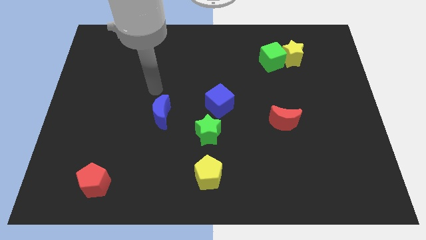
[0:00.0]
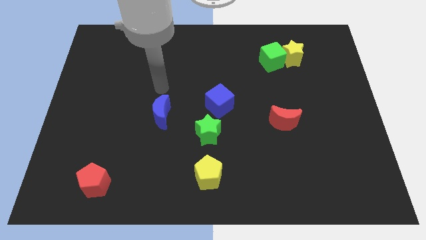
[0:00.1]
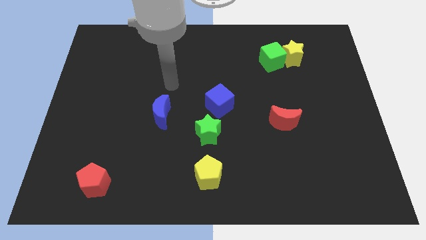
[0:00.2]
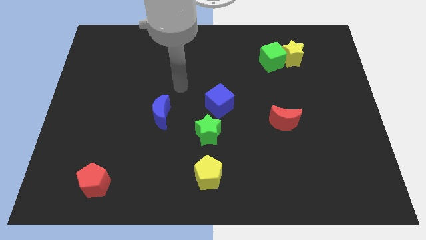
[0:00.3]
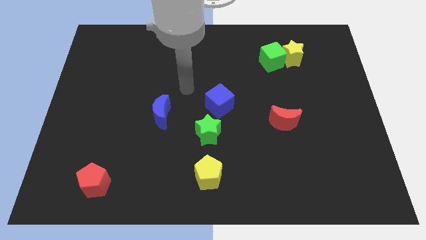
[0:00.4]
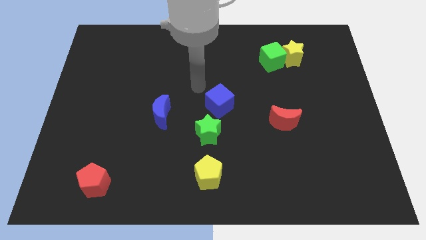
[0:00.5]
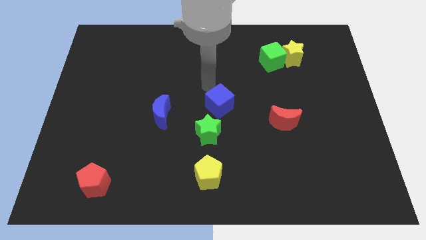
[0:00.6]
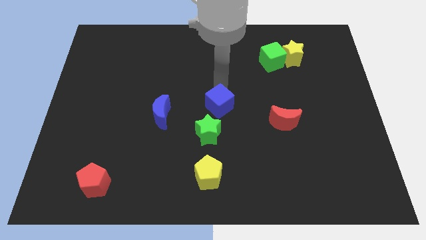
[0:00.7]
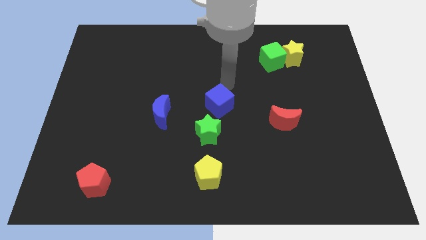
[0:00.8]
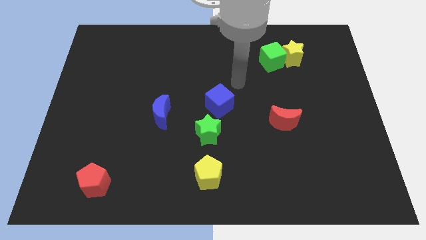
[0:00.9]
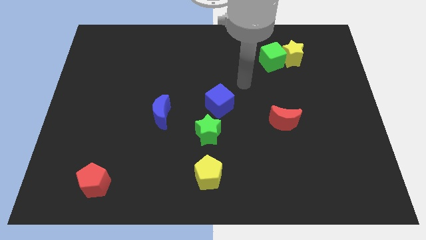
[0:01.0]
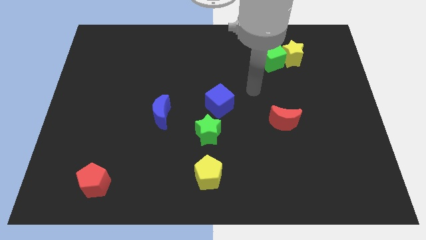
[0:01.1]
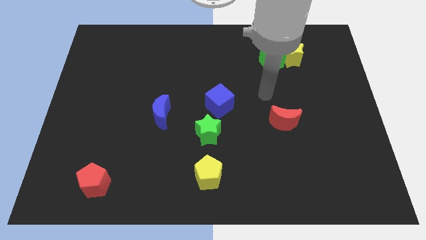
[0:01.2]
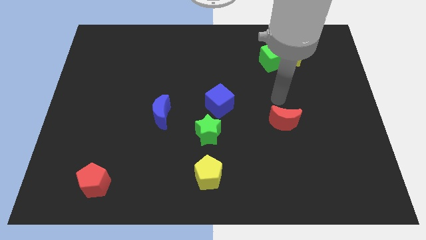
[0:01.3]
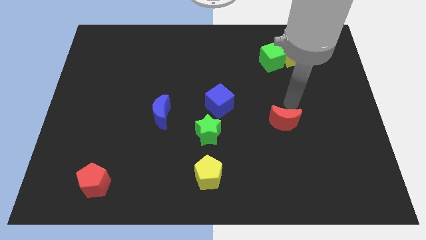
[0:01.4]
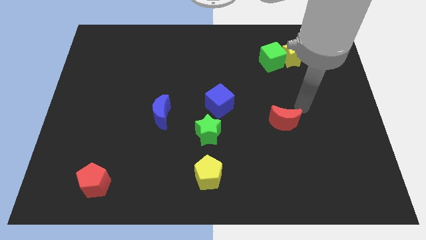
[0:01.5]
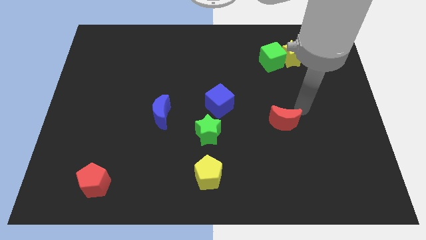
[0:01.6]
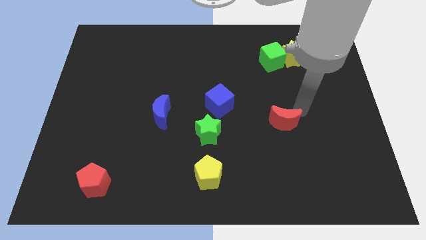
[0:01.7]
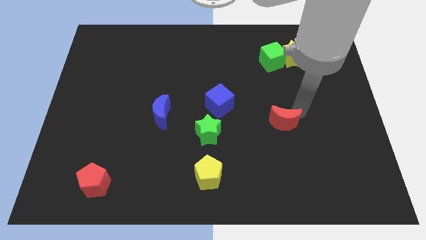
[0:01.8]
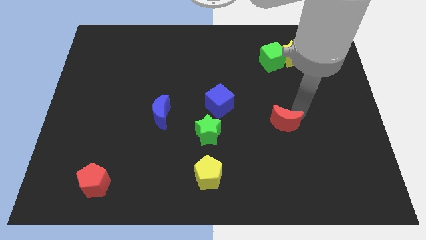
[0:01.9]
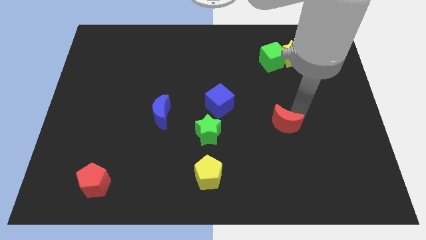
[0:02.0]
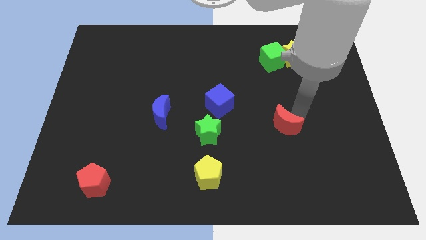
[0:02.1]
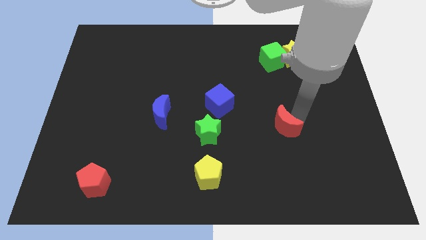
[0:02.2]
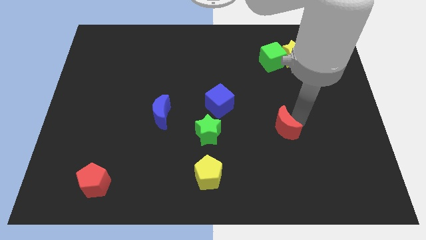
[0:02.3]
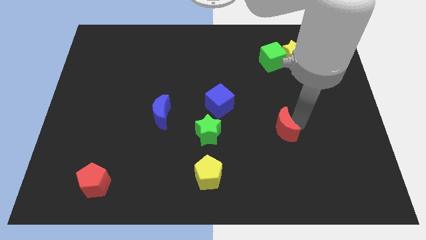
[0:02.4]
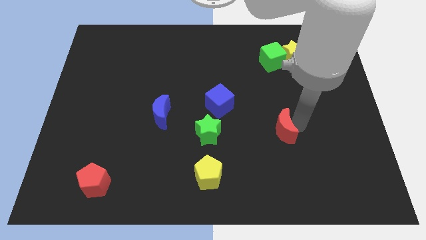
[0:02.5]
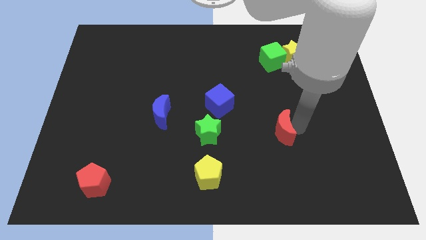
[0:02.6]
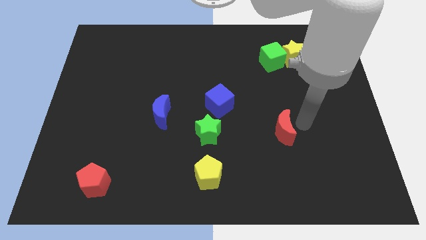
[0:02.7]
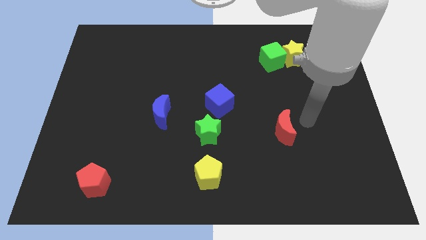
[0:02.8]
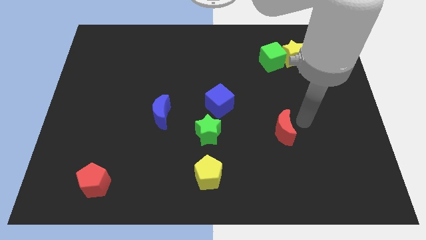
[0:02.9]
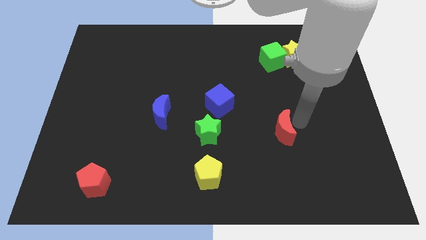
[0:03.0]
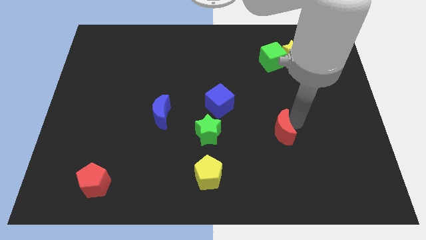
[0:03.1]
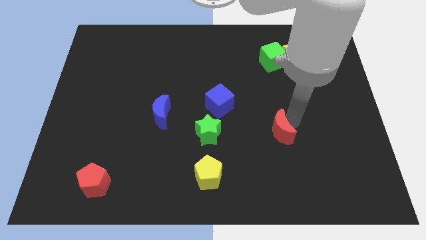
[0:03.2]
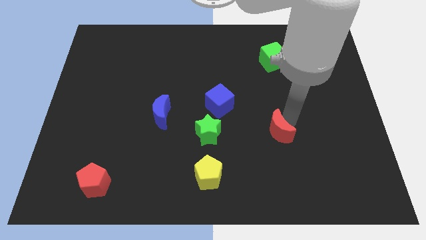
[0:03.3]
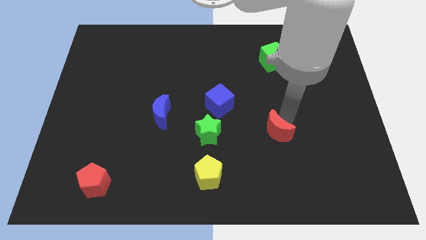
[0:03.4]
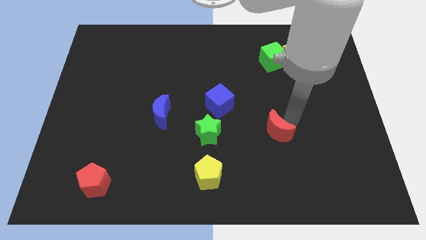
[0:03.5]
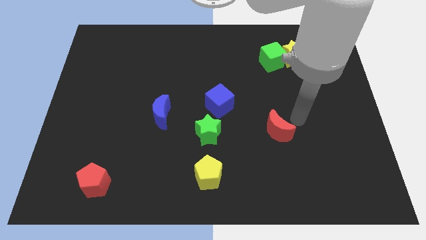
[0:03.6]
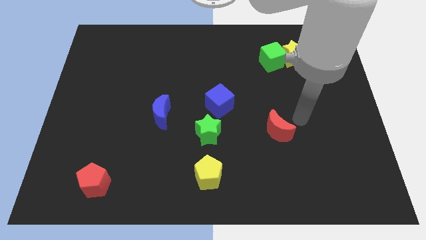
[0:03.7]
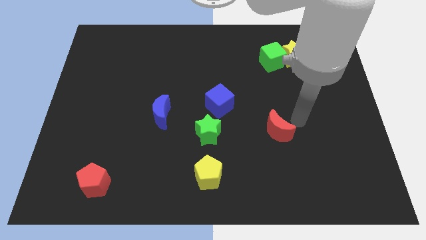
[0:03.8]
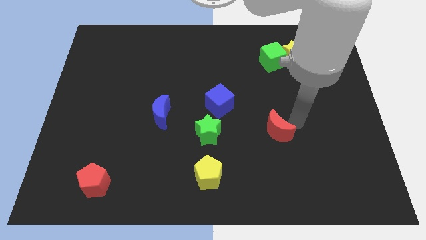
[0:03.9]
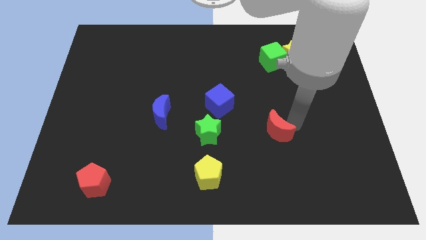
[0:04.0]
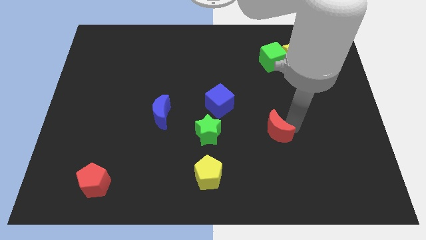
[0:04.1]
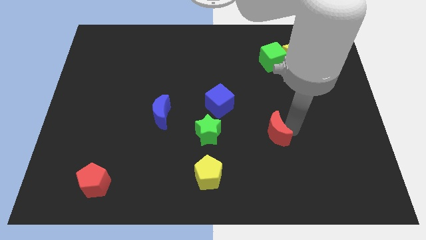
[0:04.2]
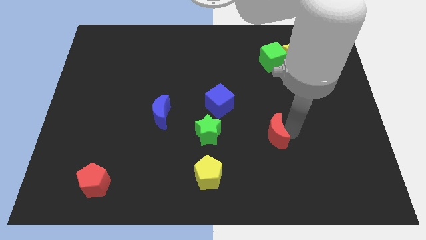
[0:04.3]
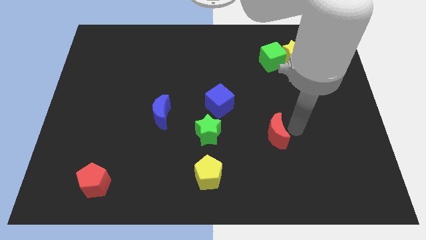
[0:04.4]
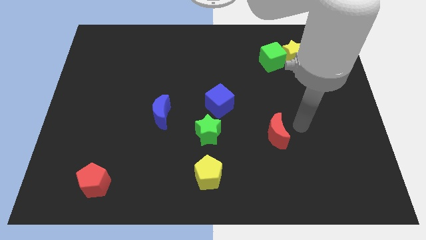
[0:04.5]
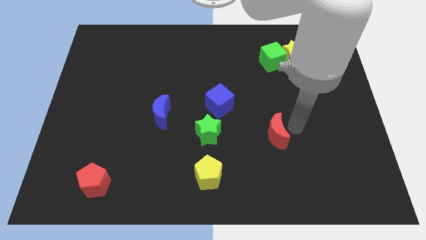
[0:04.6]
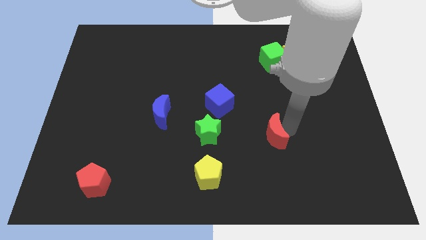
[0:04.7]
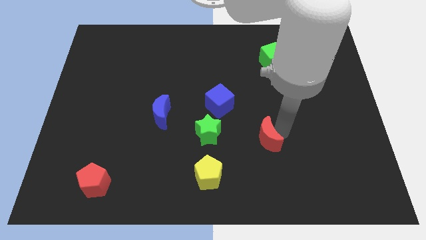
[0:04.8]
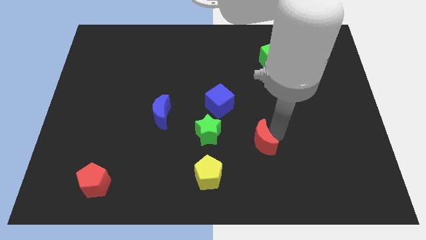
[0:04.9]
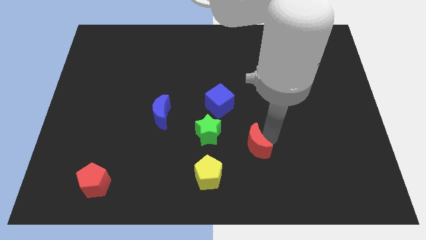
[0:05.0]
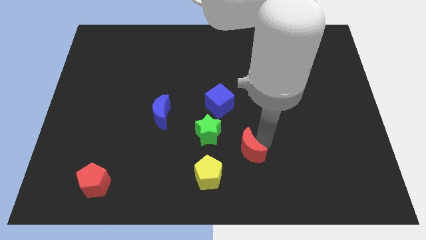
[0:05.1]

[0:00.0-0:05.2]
put the red moon to the bottom right side of the green star

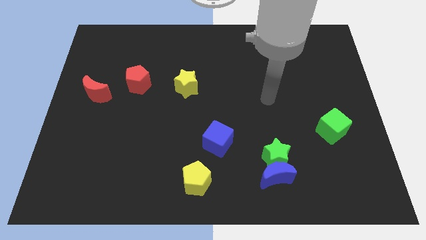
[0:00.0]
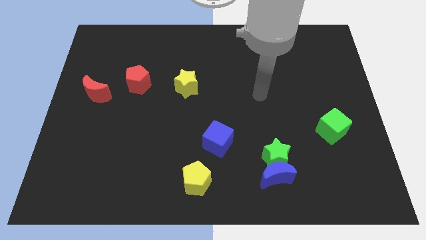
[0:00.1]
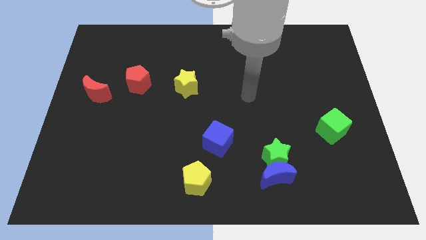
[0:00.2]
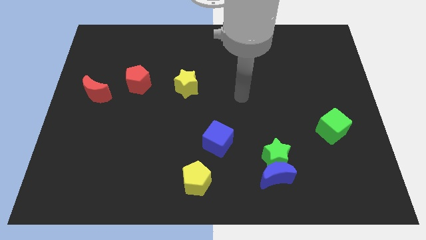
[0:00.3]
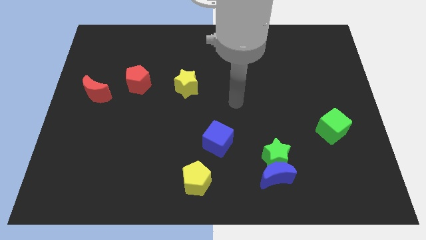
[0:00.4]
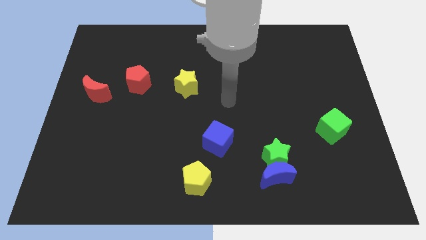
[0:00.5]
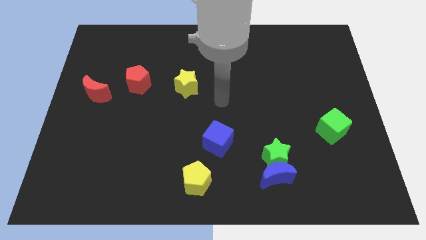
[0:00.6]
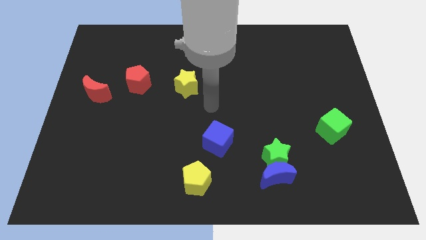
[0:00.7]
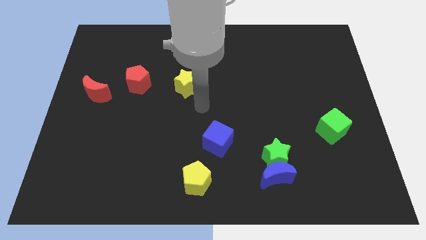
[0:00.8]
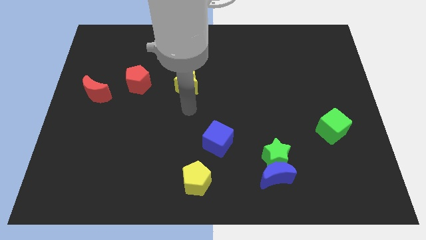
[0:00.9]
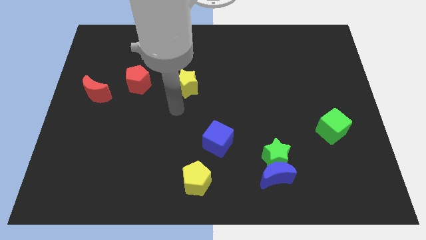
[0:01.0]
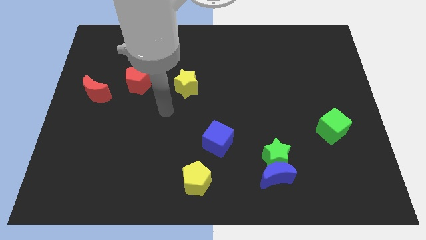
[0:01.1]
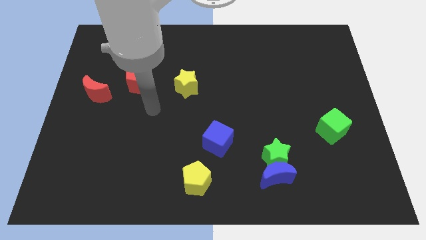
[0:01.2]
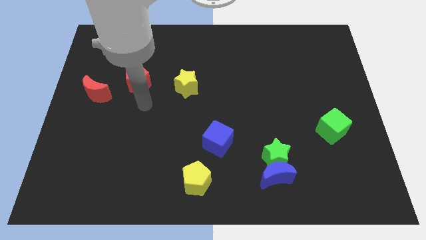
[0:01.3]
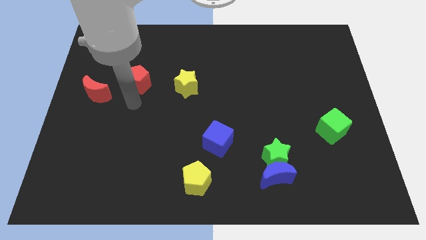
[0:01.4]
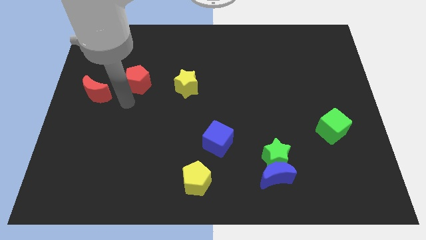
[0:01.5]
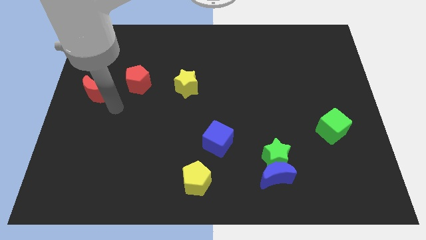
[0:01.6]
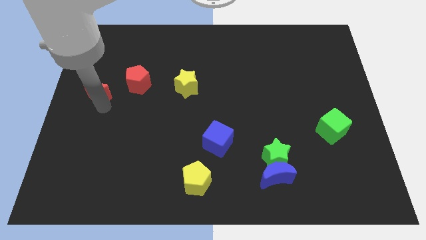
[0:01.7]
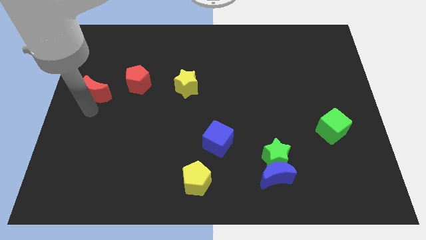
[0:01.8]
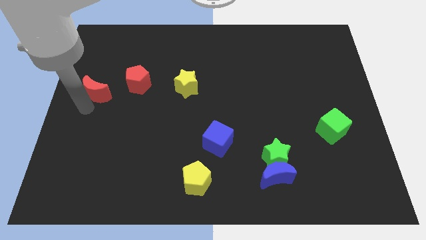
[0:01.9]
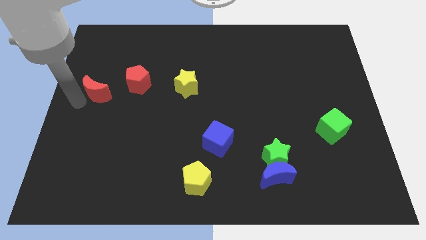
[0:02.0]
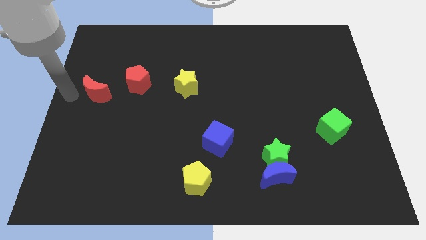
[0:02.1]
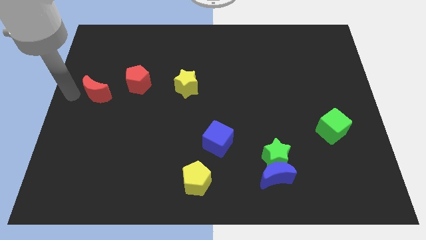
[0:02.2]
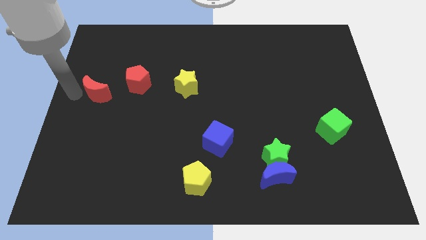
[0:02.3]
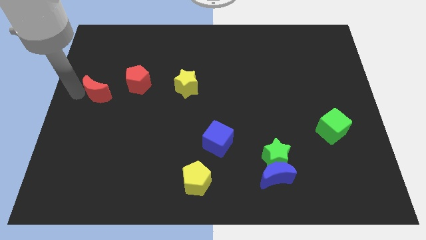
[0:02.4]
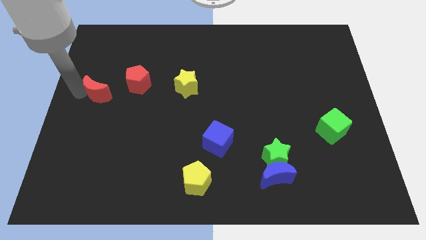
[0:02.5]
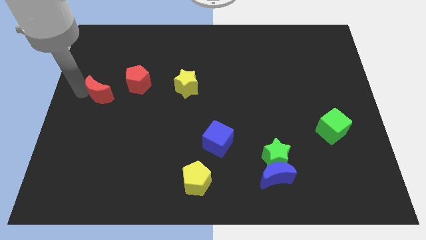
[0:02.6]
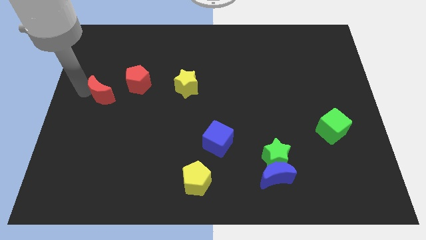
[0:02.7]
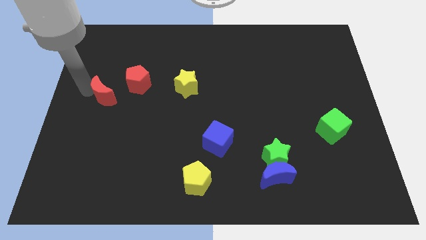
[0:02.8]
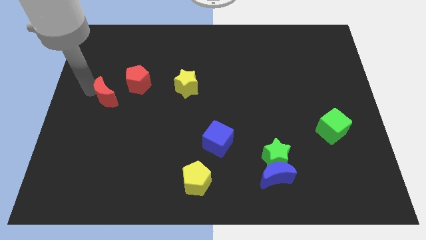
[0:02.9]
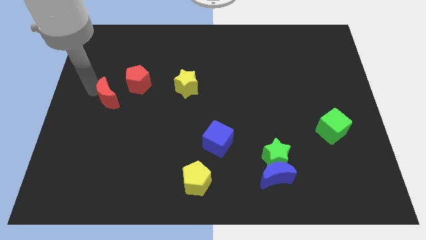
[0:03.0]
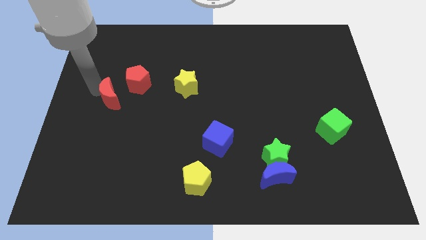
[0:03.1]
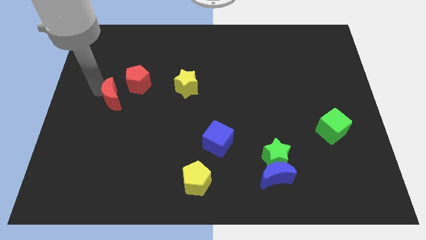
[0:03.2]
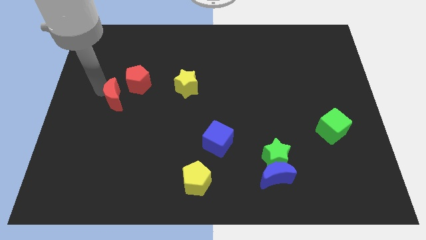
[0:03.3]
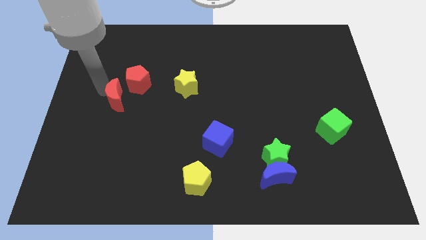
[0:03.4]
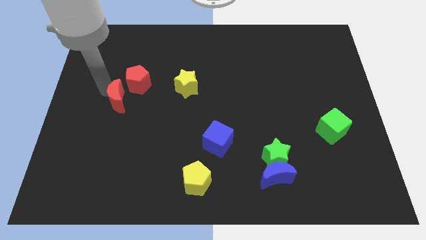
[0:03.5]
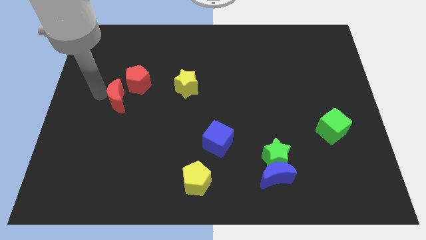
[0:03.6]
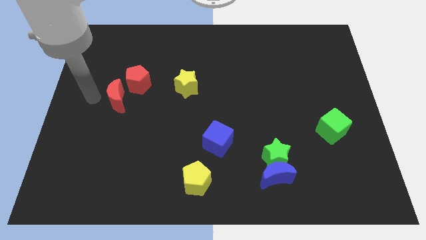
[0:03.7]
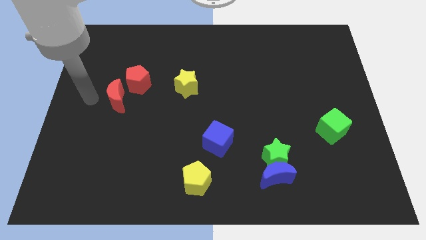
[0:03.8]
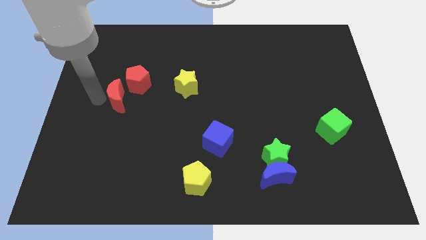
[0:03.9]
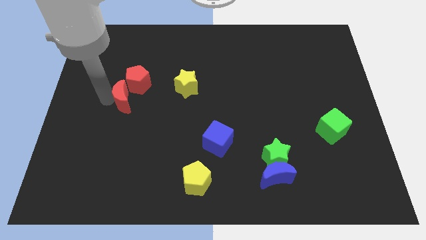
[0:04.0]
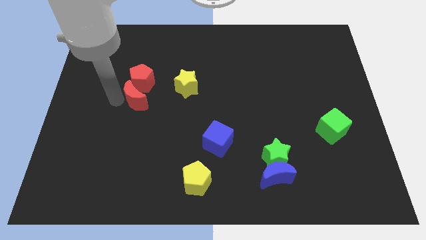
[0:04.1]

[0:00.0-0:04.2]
push the red moon to the bottom right side of the red pentagon
